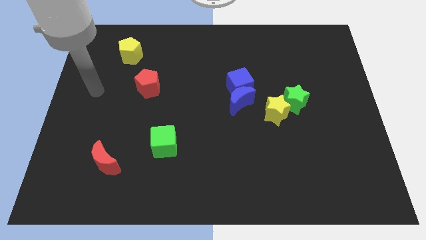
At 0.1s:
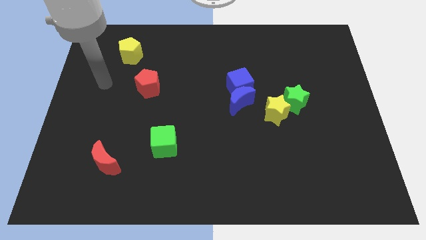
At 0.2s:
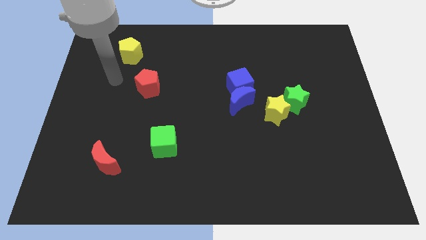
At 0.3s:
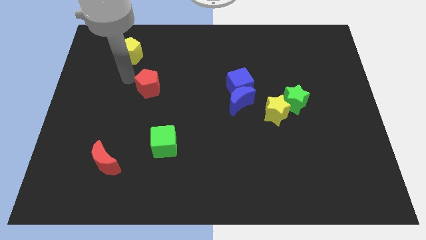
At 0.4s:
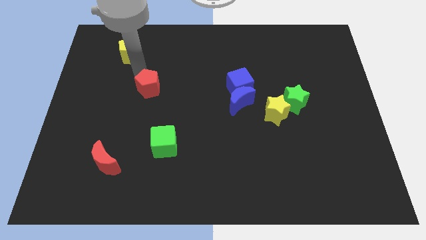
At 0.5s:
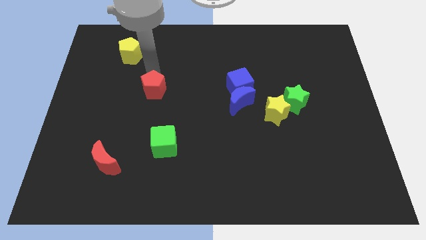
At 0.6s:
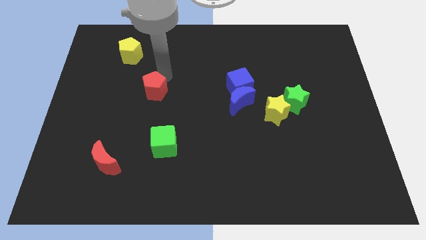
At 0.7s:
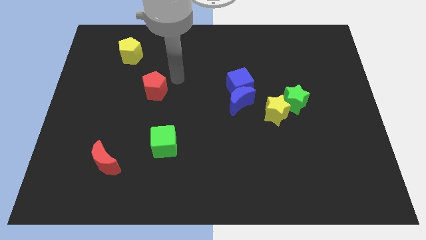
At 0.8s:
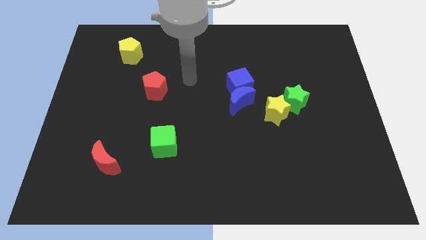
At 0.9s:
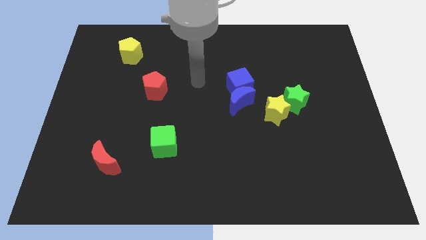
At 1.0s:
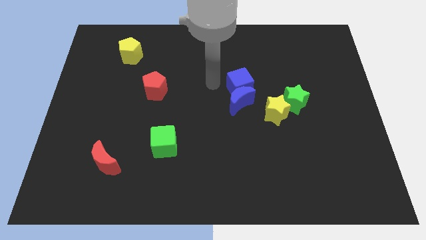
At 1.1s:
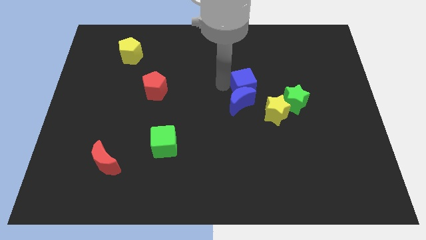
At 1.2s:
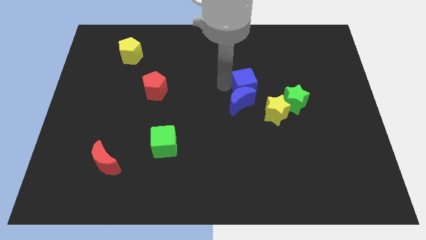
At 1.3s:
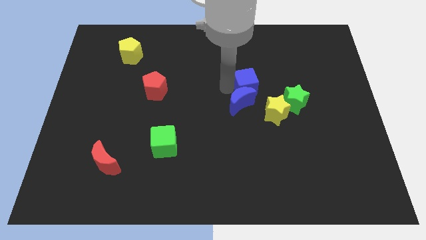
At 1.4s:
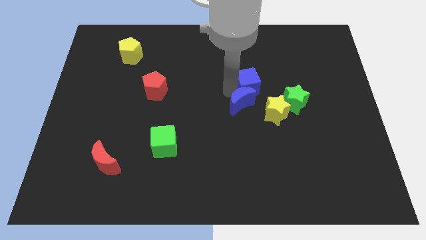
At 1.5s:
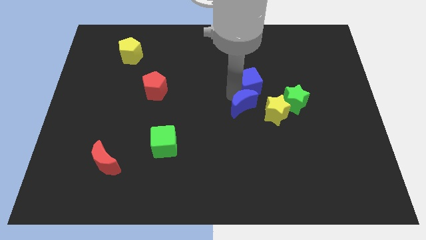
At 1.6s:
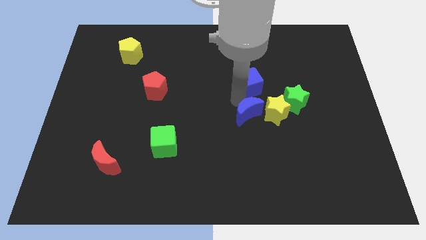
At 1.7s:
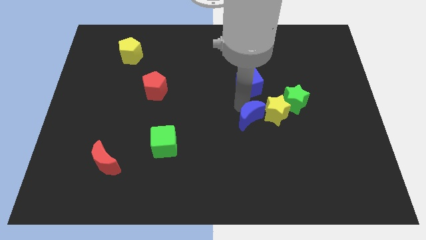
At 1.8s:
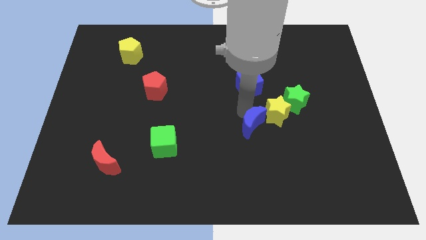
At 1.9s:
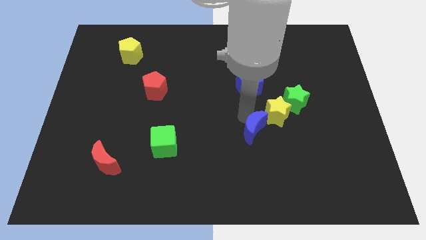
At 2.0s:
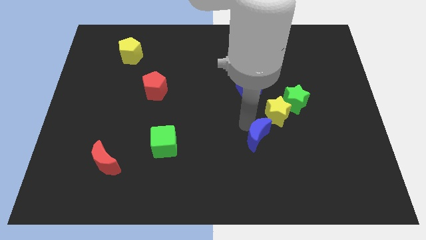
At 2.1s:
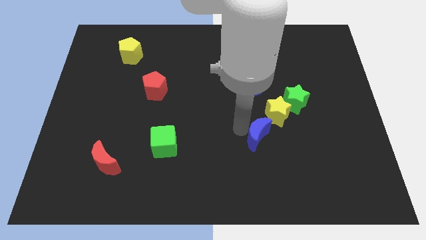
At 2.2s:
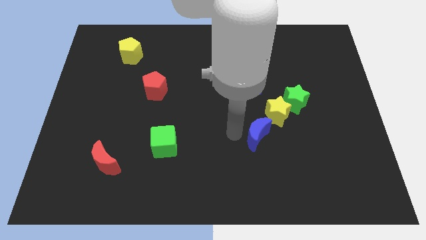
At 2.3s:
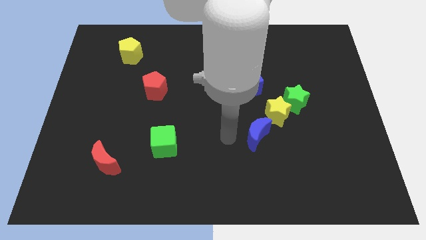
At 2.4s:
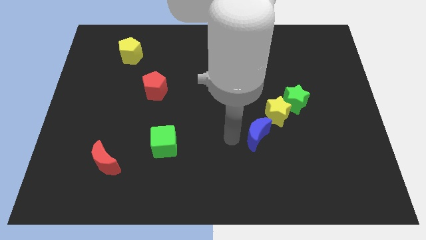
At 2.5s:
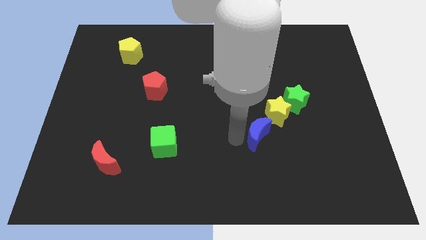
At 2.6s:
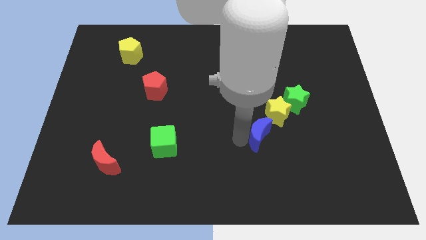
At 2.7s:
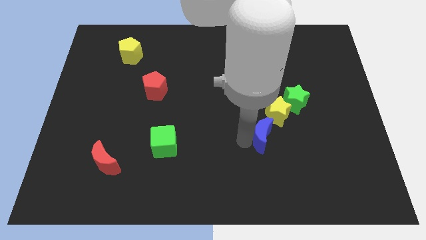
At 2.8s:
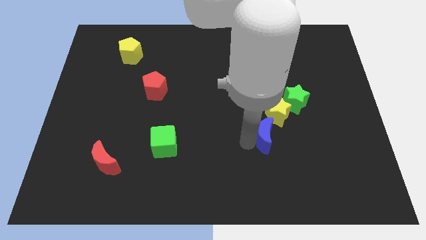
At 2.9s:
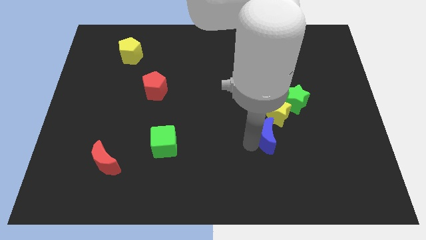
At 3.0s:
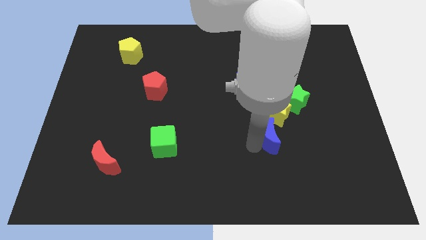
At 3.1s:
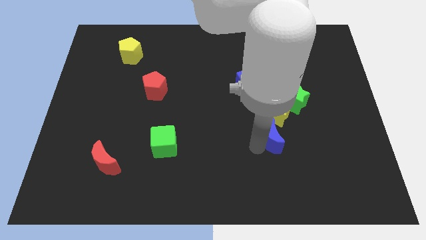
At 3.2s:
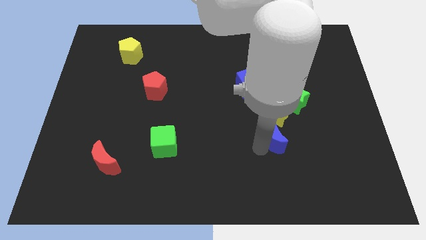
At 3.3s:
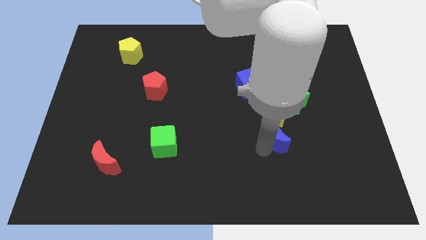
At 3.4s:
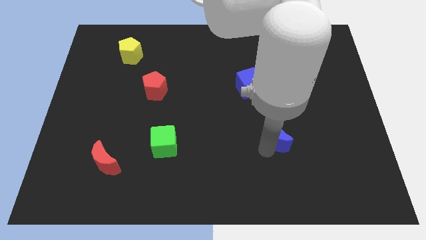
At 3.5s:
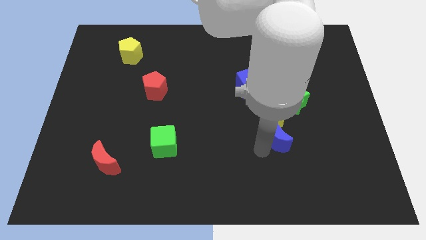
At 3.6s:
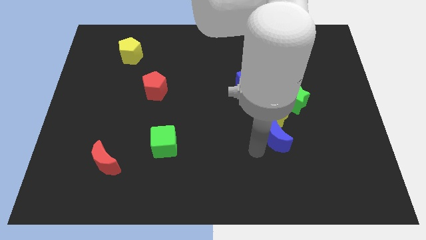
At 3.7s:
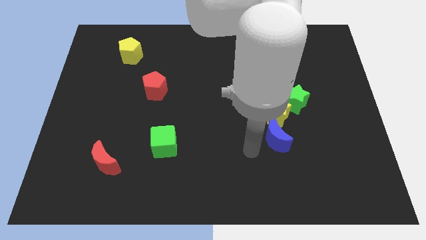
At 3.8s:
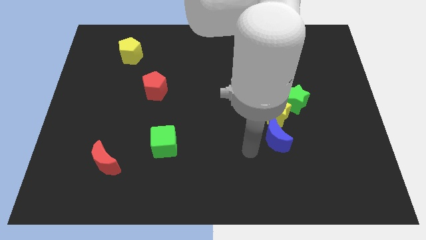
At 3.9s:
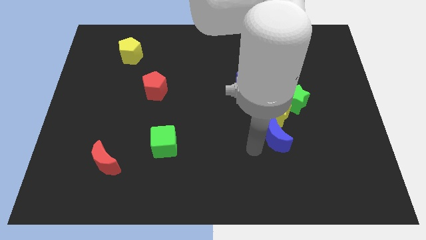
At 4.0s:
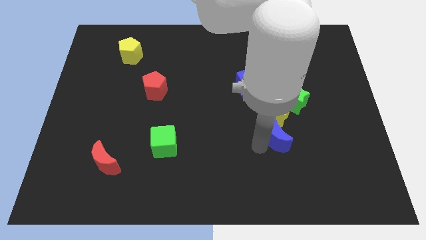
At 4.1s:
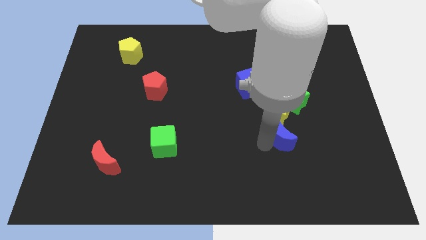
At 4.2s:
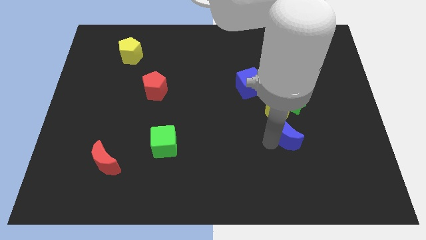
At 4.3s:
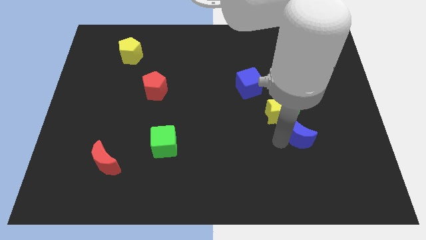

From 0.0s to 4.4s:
move the blue moon right a bit

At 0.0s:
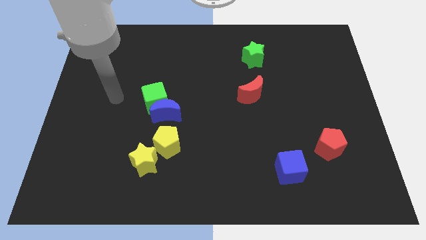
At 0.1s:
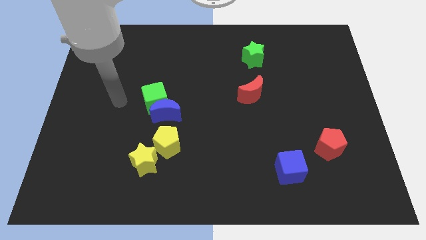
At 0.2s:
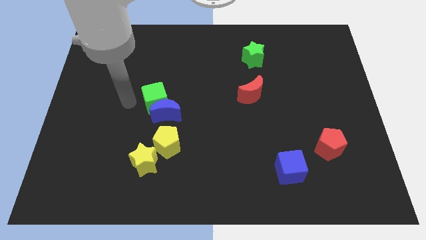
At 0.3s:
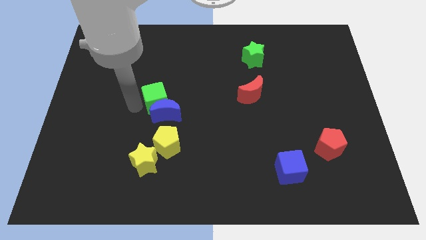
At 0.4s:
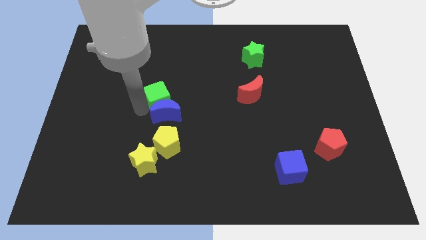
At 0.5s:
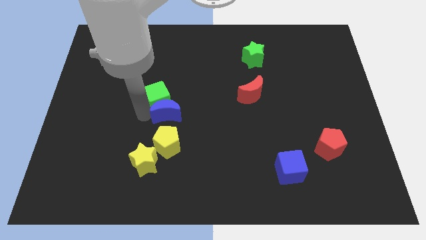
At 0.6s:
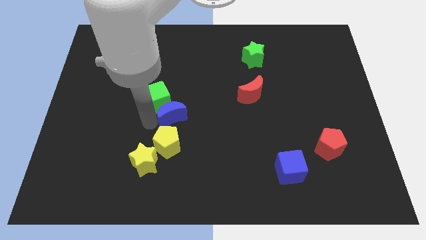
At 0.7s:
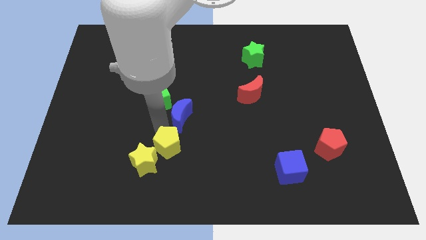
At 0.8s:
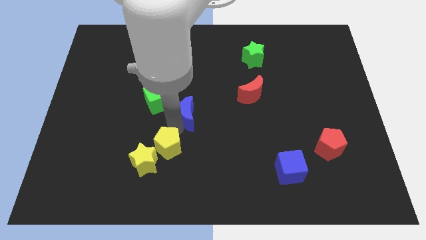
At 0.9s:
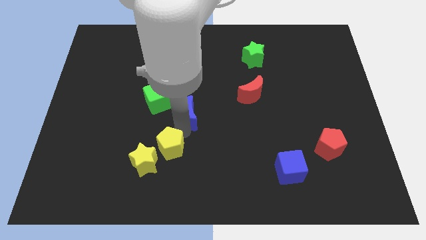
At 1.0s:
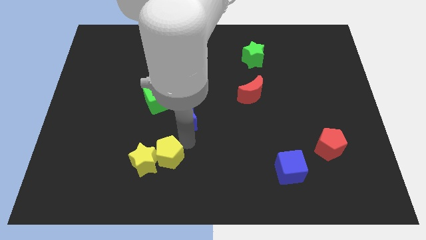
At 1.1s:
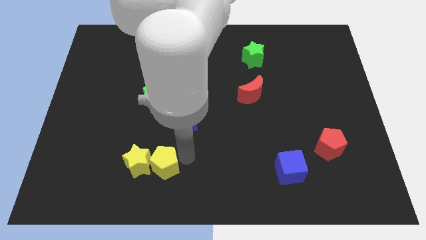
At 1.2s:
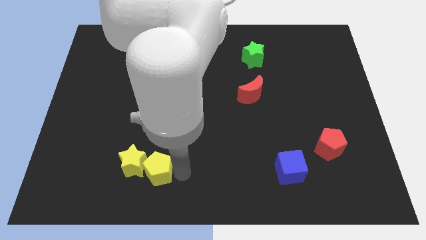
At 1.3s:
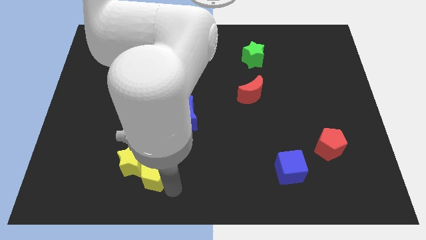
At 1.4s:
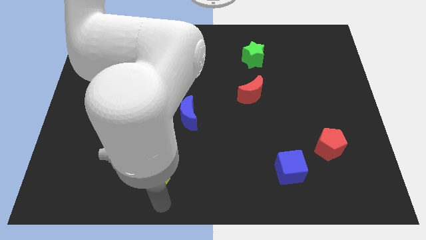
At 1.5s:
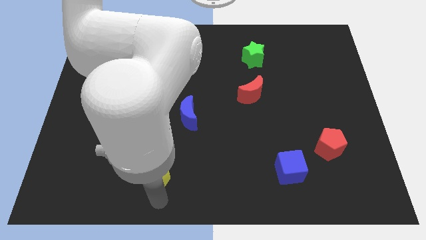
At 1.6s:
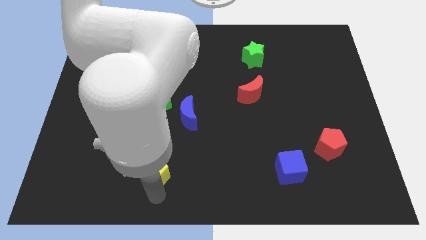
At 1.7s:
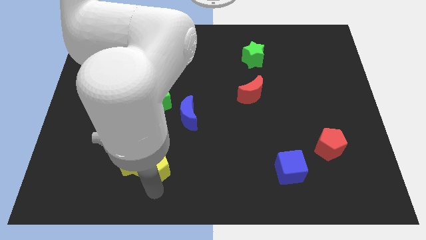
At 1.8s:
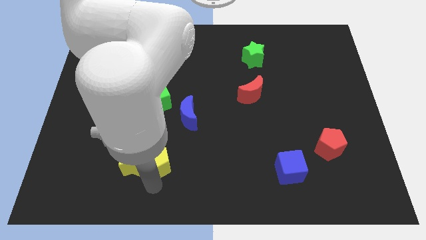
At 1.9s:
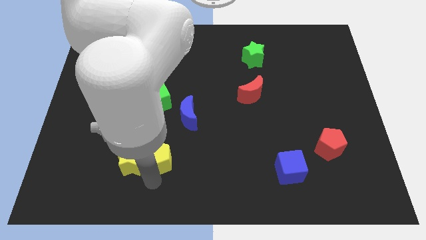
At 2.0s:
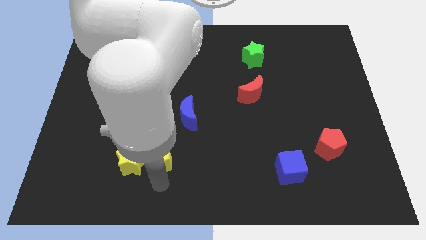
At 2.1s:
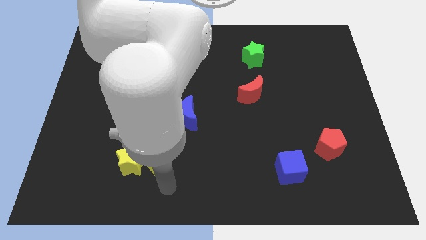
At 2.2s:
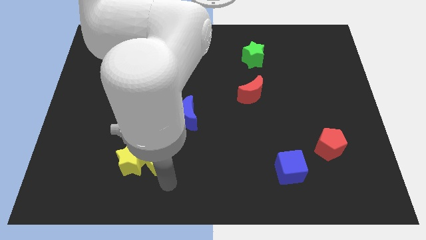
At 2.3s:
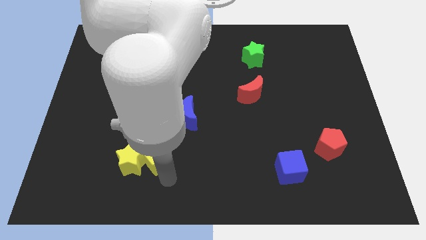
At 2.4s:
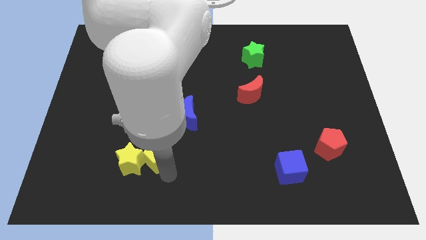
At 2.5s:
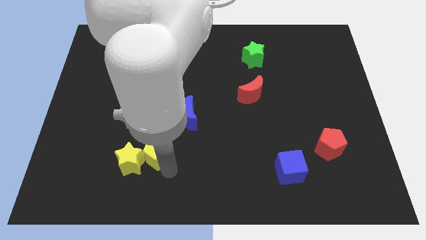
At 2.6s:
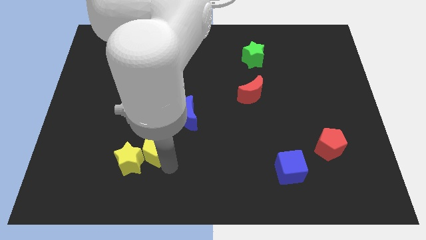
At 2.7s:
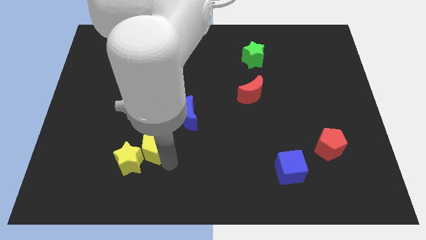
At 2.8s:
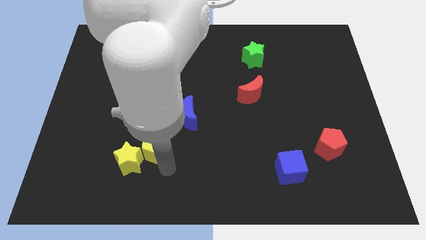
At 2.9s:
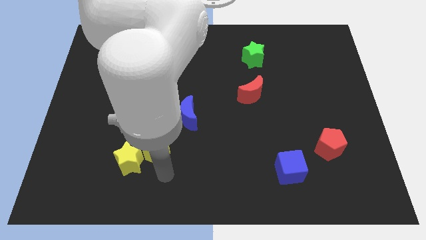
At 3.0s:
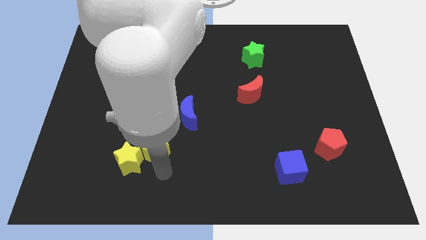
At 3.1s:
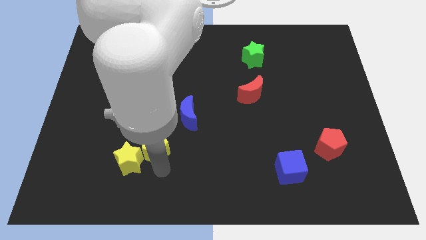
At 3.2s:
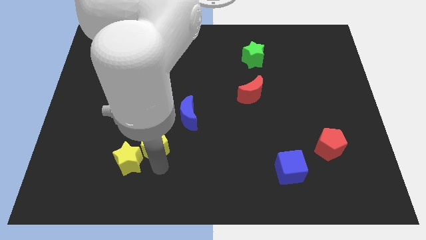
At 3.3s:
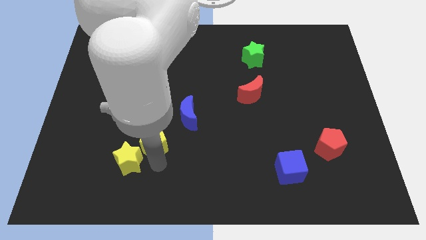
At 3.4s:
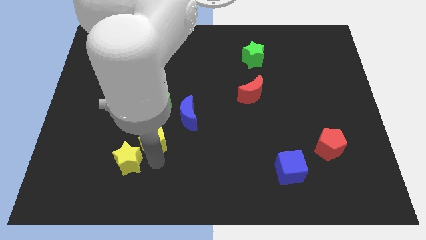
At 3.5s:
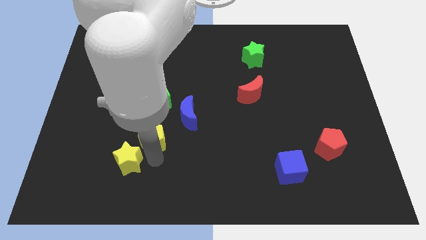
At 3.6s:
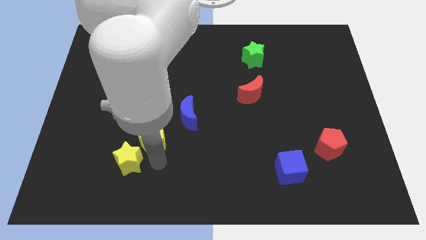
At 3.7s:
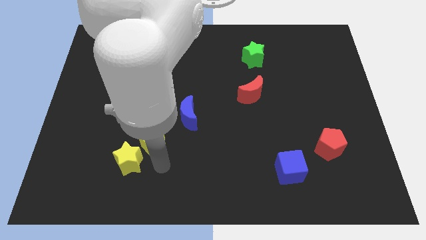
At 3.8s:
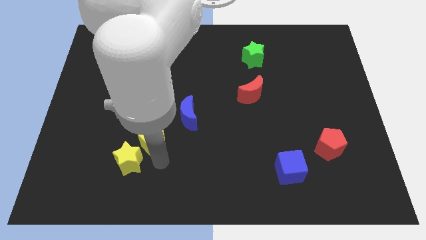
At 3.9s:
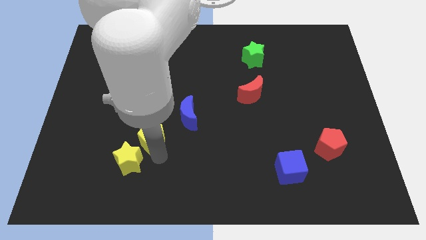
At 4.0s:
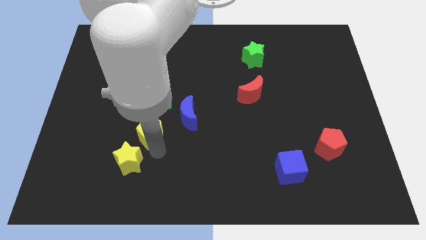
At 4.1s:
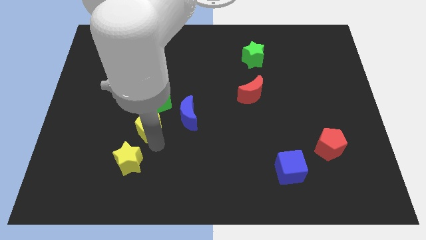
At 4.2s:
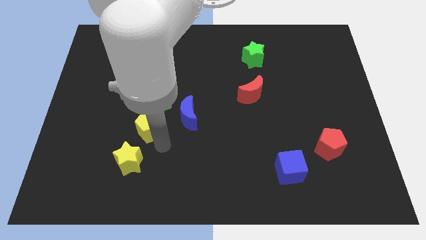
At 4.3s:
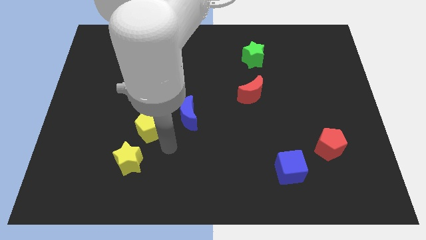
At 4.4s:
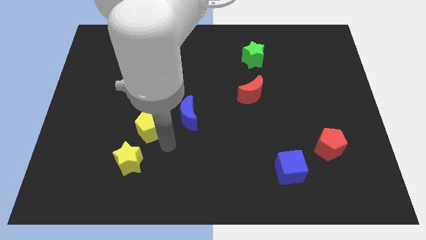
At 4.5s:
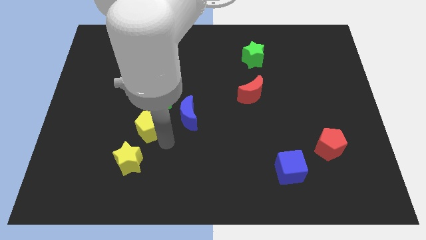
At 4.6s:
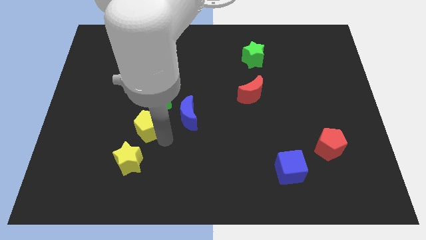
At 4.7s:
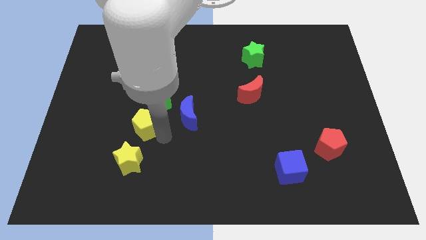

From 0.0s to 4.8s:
slide the yellow pentagon slightly upwards and to the left diagonally
